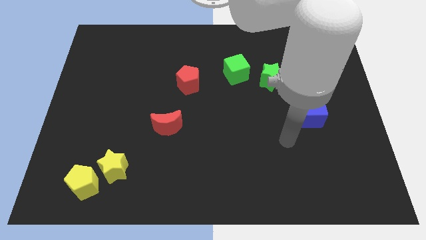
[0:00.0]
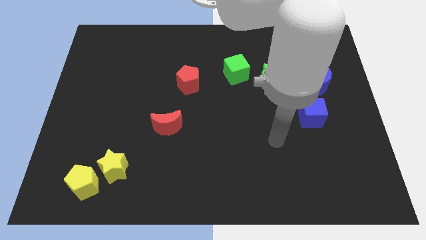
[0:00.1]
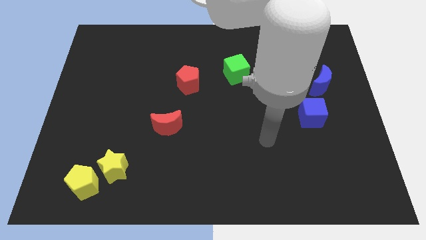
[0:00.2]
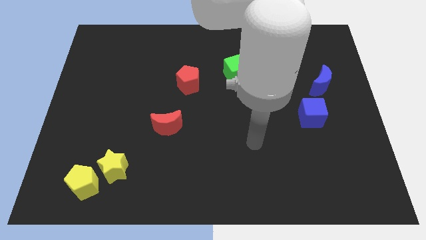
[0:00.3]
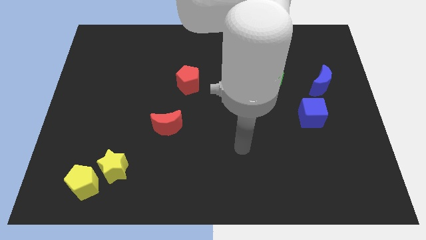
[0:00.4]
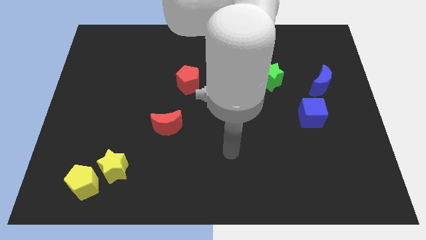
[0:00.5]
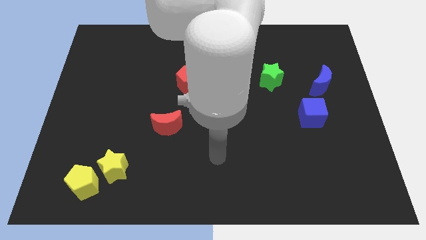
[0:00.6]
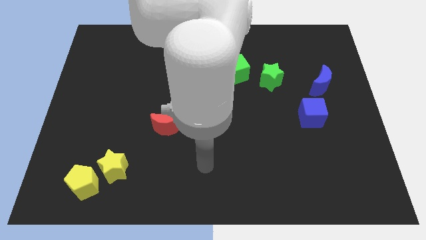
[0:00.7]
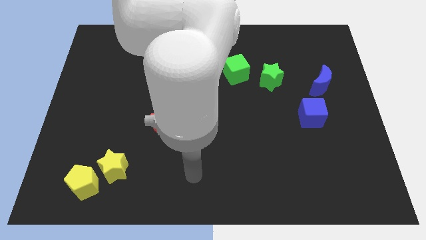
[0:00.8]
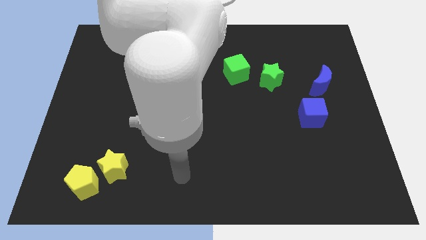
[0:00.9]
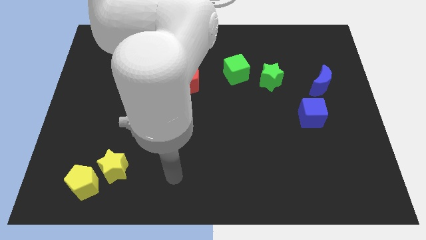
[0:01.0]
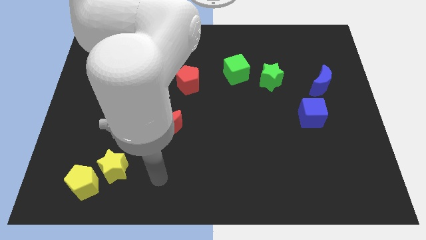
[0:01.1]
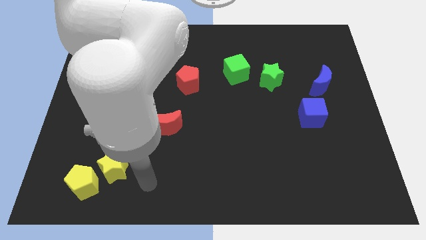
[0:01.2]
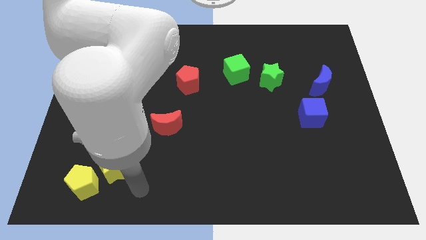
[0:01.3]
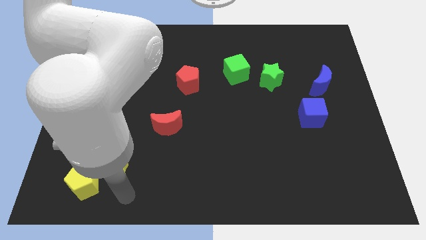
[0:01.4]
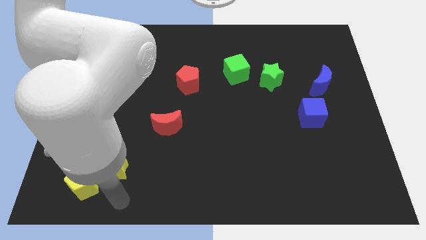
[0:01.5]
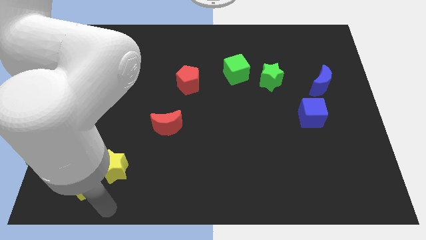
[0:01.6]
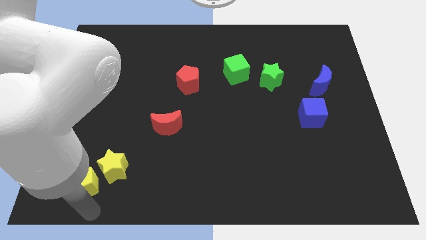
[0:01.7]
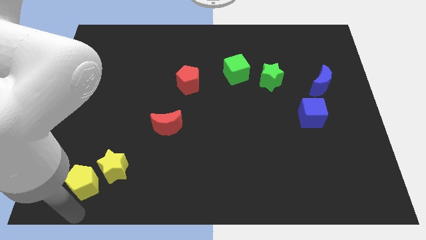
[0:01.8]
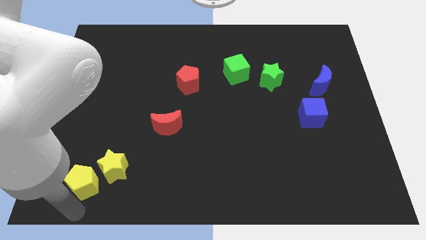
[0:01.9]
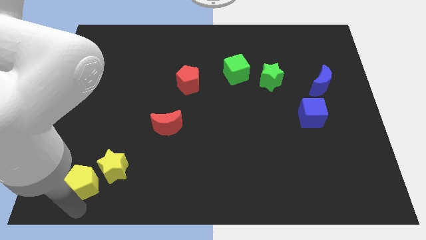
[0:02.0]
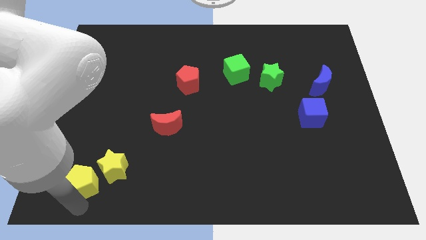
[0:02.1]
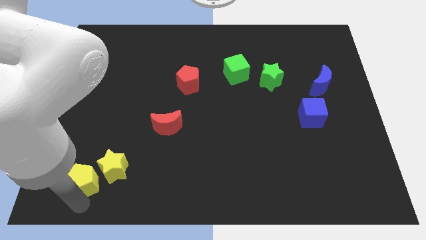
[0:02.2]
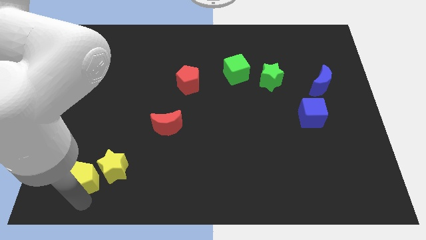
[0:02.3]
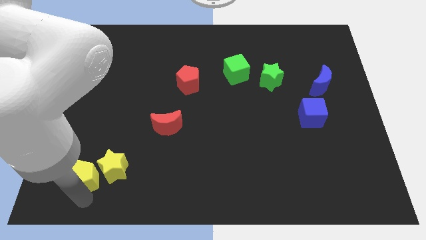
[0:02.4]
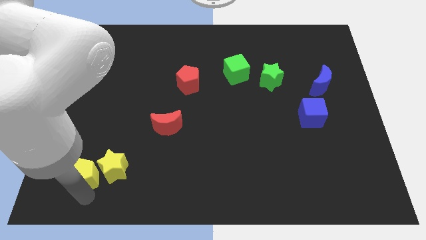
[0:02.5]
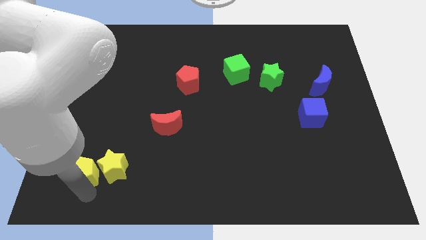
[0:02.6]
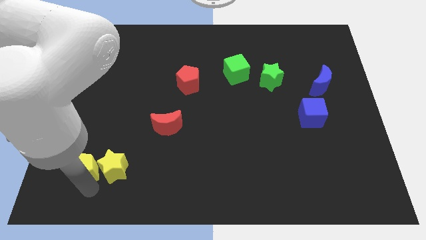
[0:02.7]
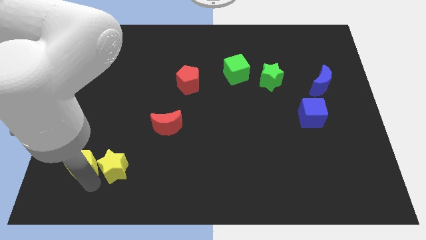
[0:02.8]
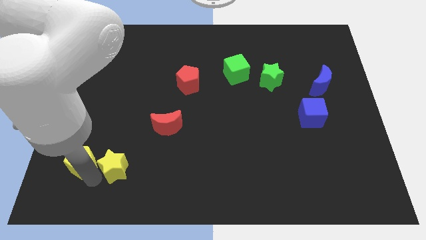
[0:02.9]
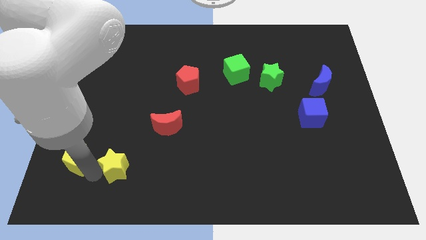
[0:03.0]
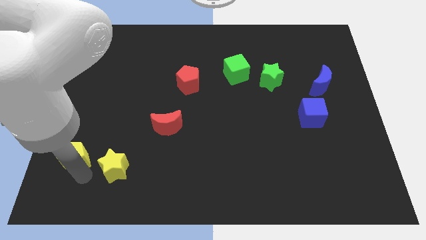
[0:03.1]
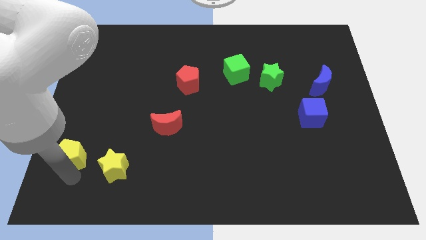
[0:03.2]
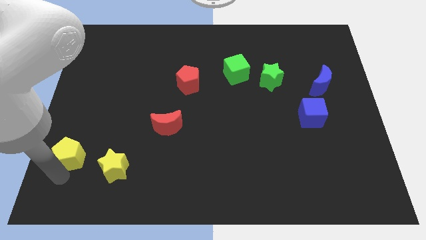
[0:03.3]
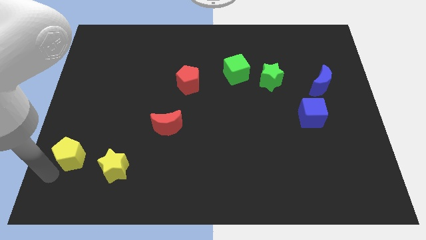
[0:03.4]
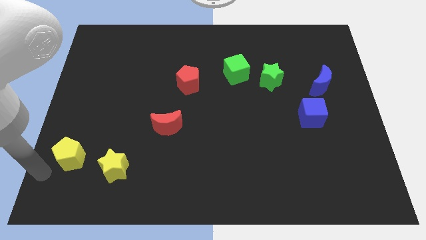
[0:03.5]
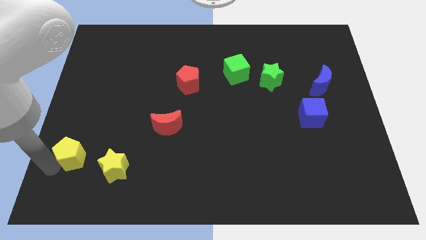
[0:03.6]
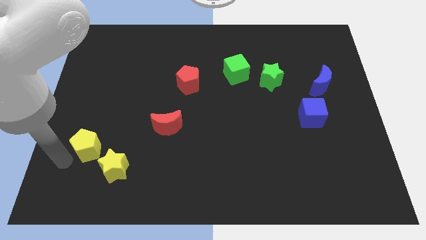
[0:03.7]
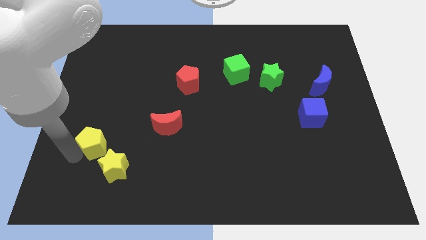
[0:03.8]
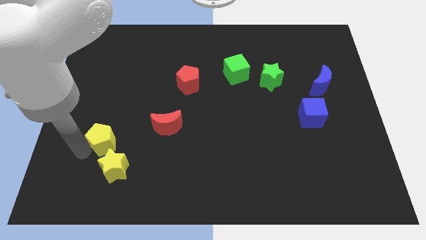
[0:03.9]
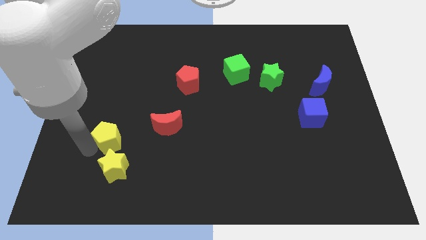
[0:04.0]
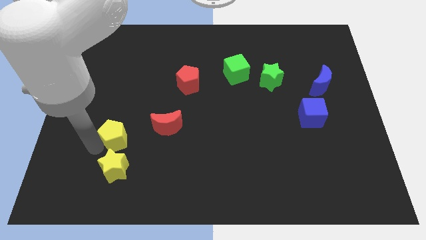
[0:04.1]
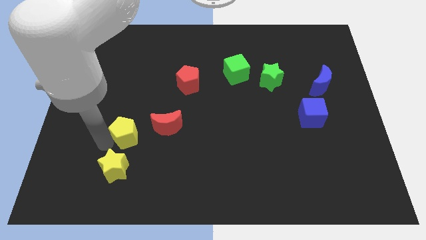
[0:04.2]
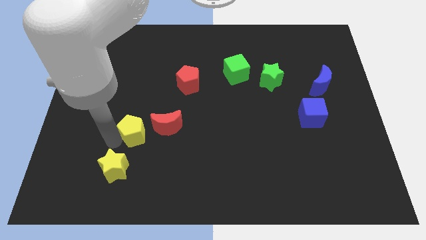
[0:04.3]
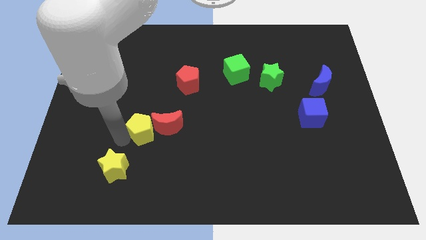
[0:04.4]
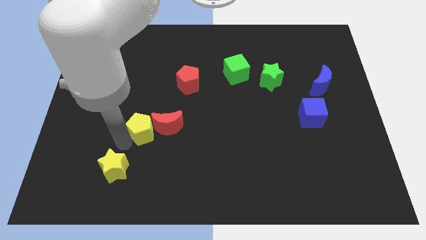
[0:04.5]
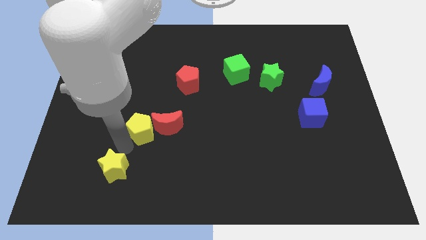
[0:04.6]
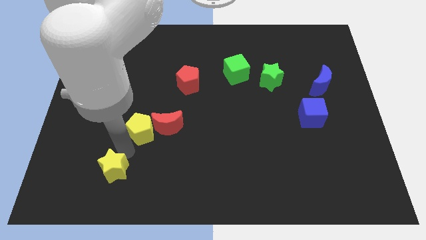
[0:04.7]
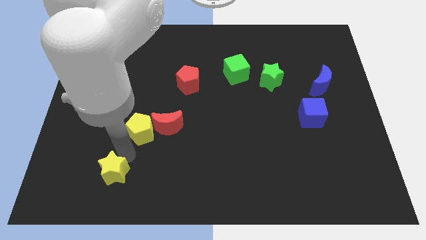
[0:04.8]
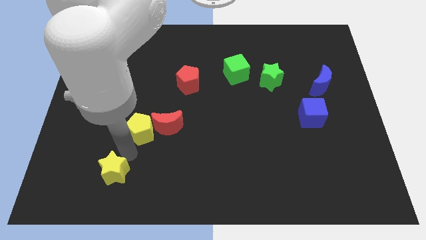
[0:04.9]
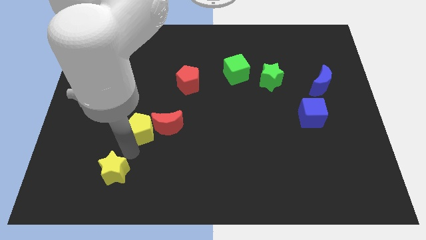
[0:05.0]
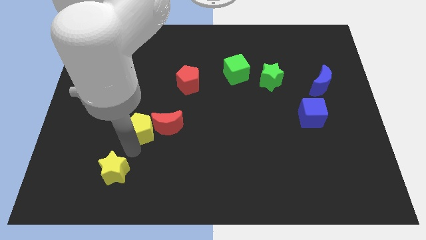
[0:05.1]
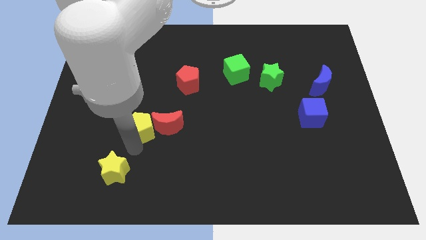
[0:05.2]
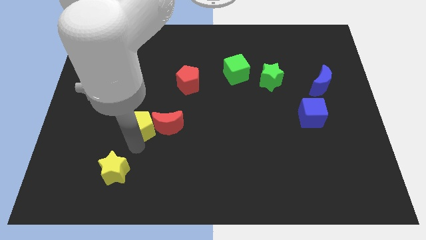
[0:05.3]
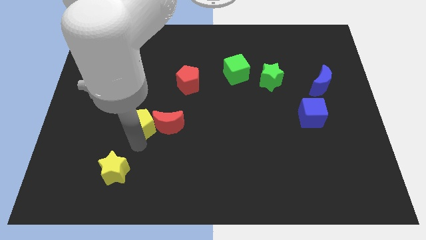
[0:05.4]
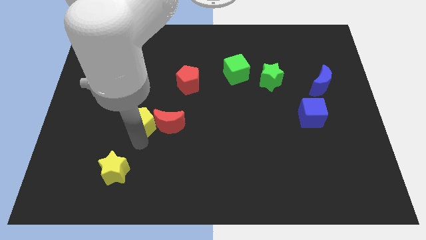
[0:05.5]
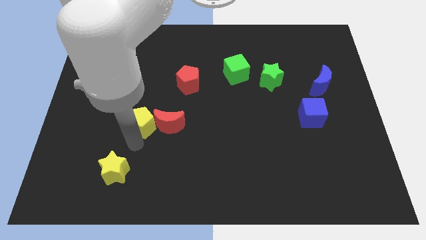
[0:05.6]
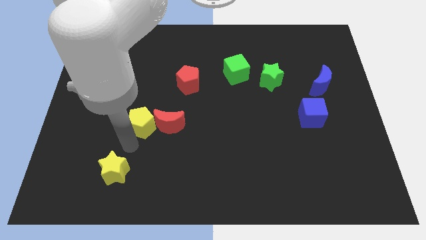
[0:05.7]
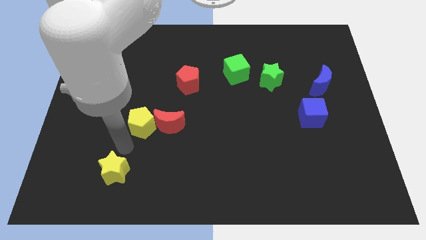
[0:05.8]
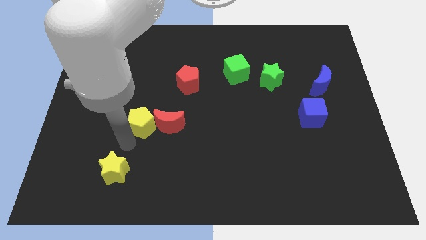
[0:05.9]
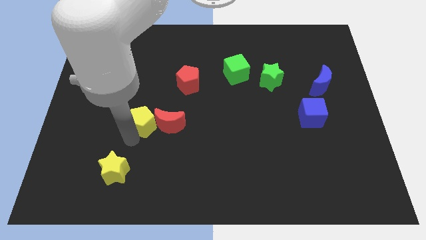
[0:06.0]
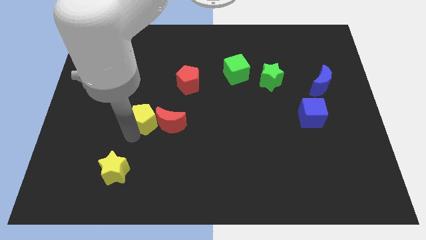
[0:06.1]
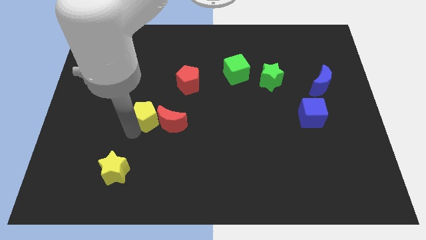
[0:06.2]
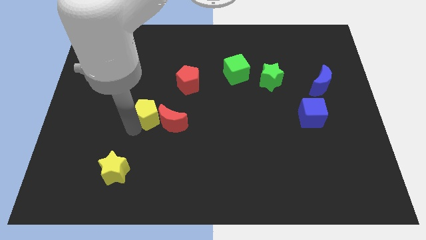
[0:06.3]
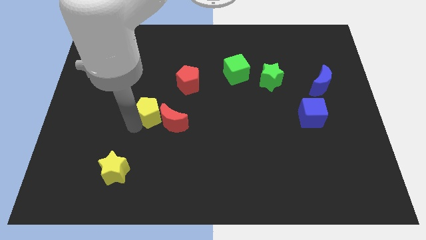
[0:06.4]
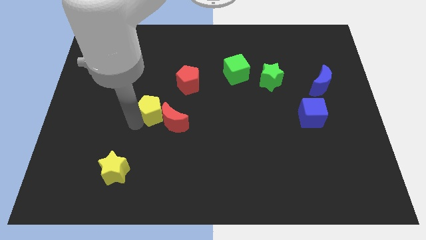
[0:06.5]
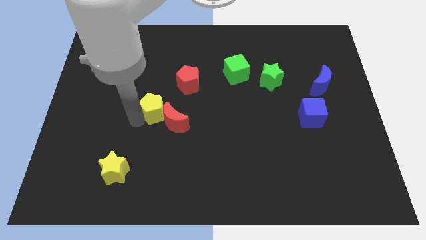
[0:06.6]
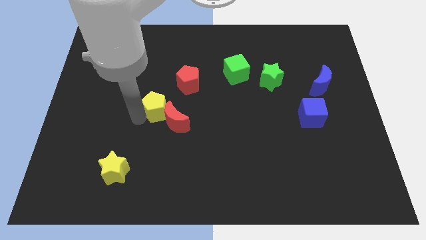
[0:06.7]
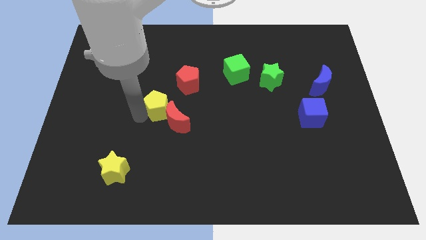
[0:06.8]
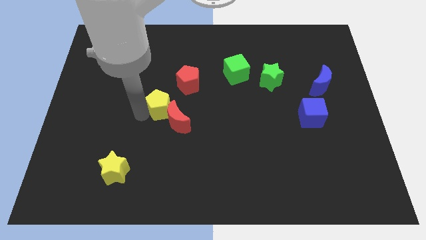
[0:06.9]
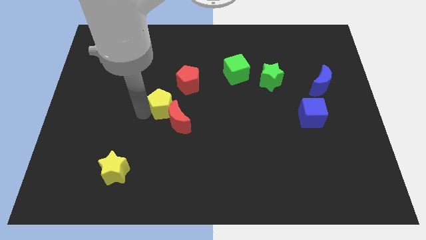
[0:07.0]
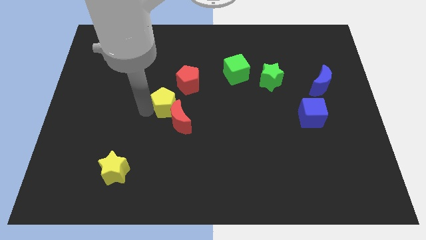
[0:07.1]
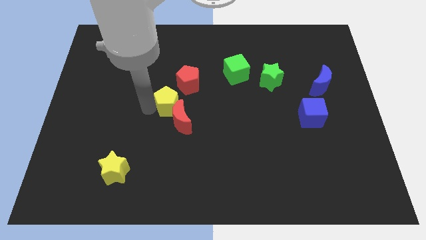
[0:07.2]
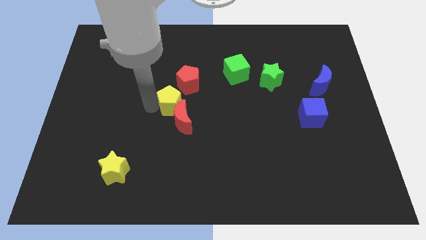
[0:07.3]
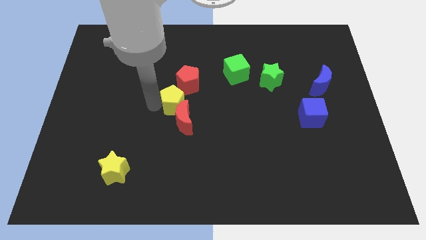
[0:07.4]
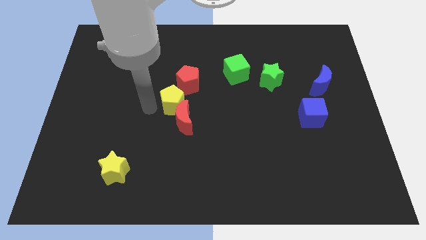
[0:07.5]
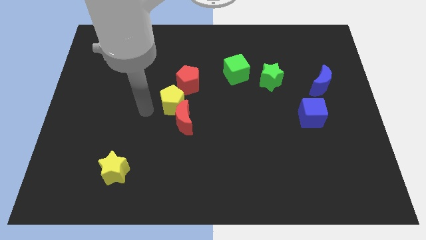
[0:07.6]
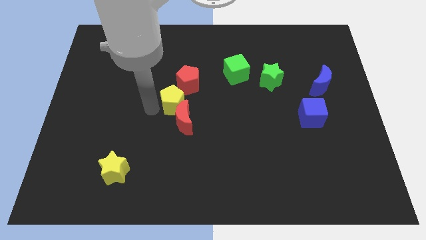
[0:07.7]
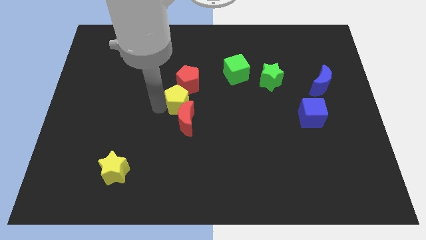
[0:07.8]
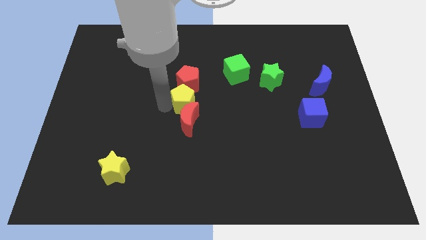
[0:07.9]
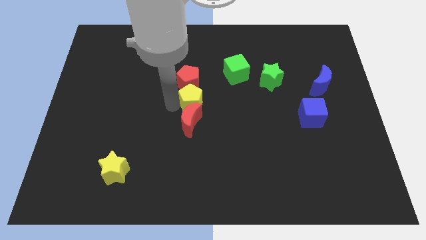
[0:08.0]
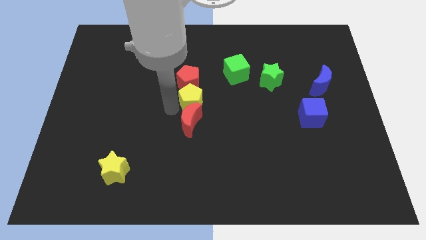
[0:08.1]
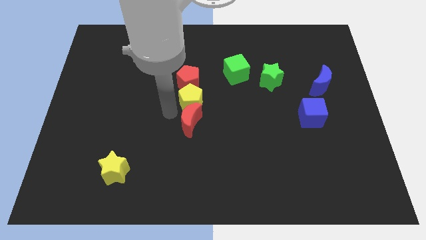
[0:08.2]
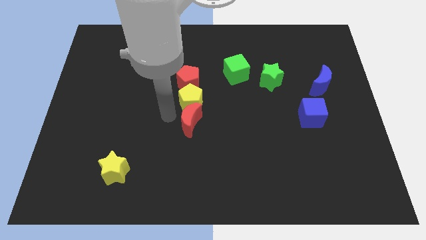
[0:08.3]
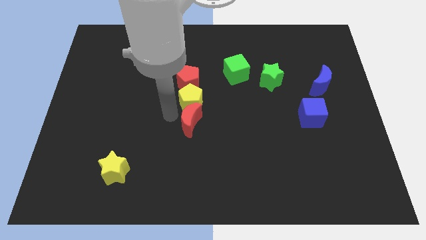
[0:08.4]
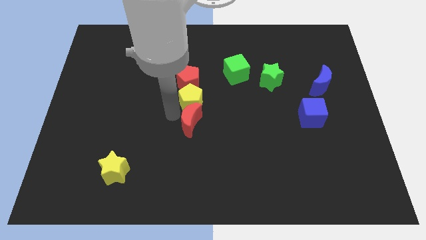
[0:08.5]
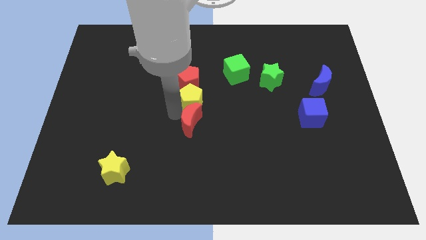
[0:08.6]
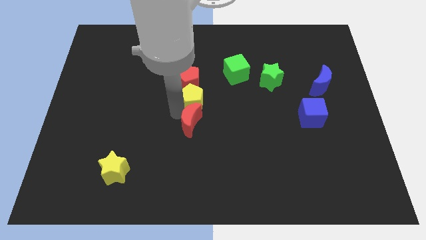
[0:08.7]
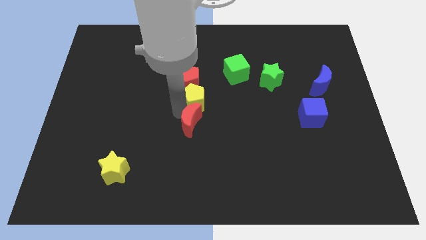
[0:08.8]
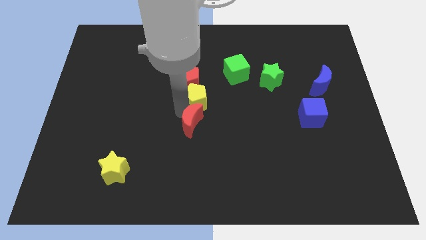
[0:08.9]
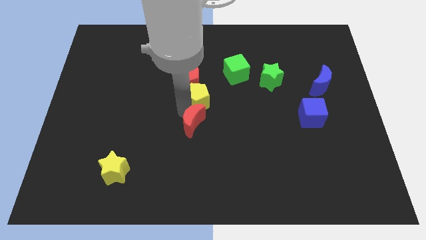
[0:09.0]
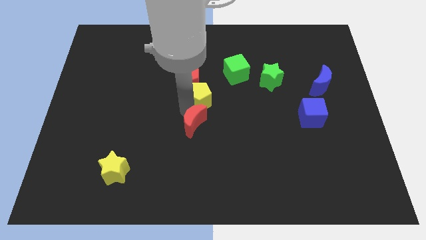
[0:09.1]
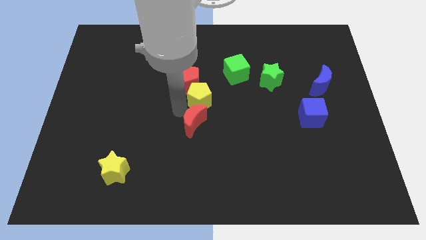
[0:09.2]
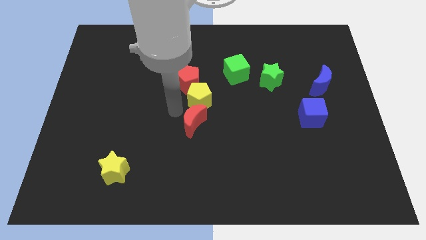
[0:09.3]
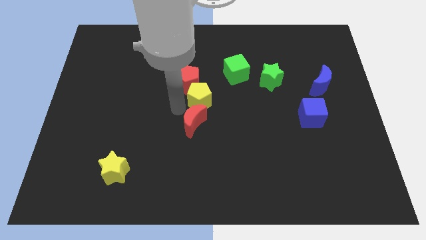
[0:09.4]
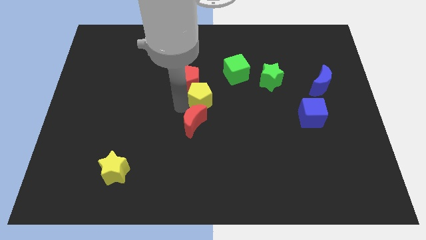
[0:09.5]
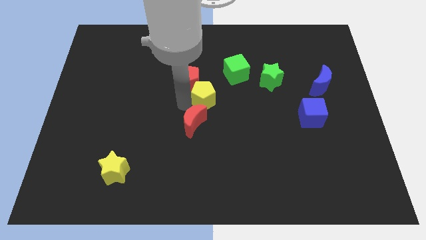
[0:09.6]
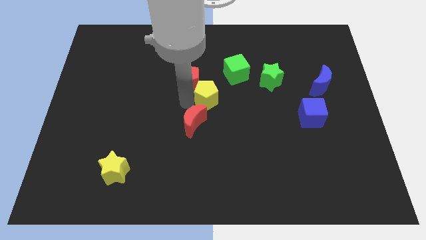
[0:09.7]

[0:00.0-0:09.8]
put the yellow pentagon right of the red pentagon
